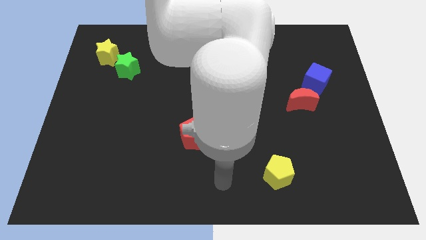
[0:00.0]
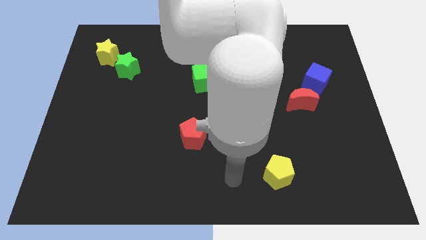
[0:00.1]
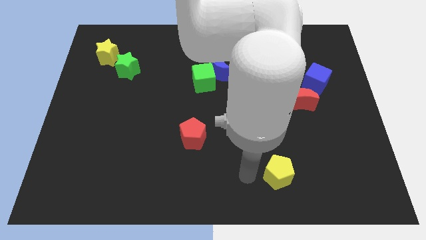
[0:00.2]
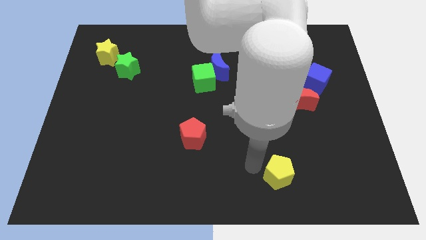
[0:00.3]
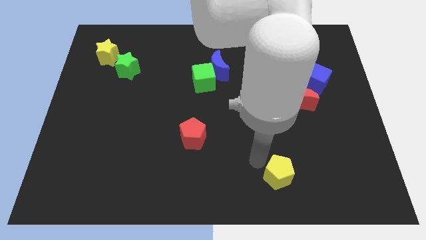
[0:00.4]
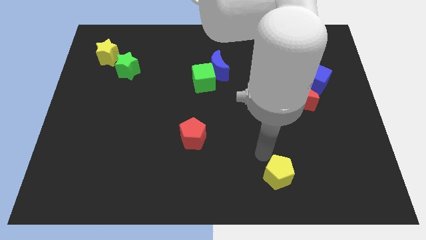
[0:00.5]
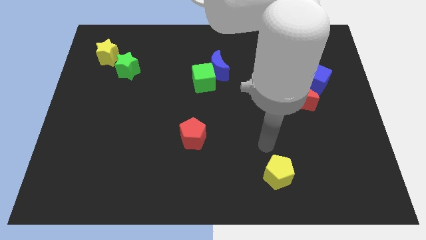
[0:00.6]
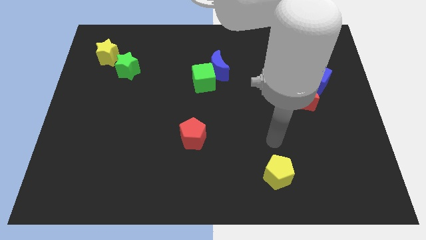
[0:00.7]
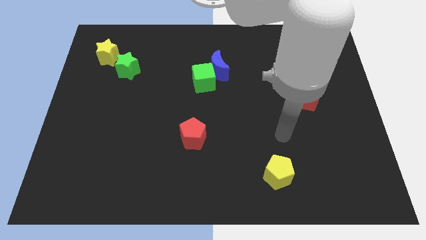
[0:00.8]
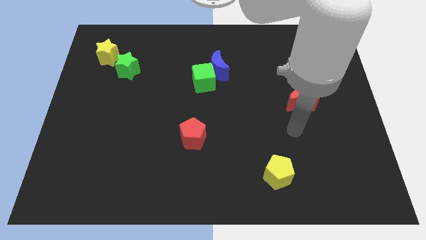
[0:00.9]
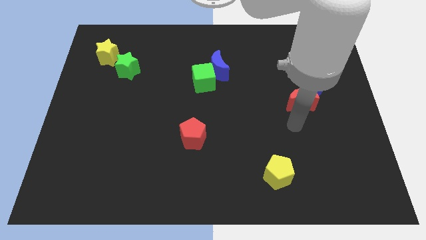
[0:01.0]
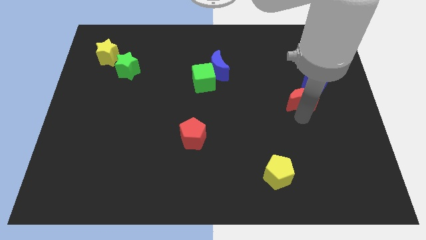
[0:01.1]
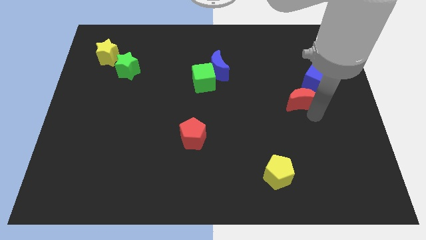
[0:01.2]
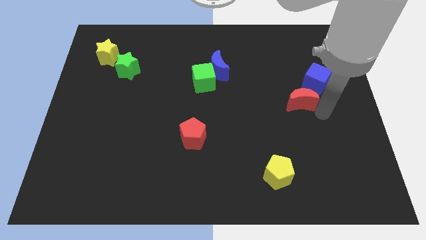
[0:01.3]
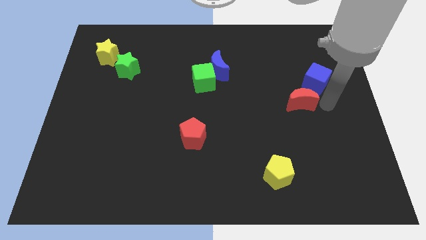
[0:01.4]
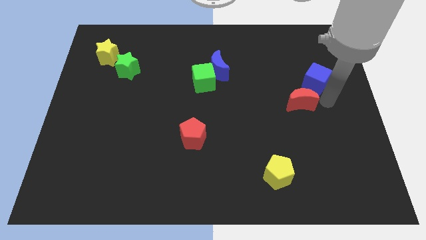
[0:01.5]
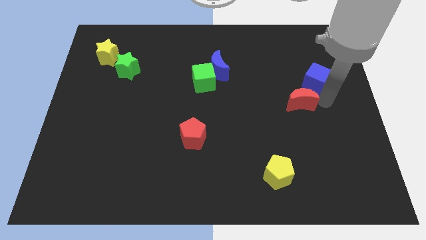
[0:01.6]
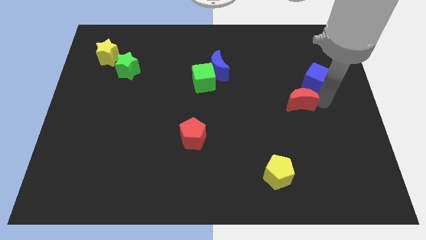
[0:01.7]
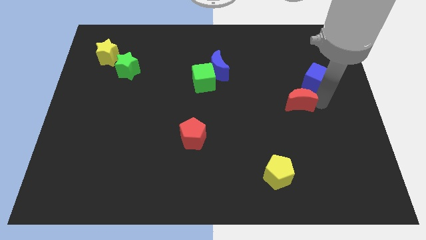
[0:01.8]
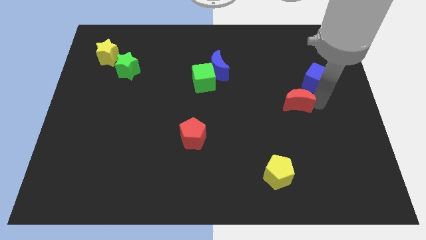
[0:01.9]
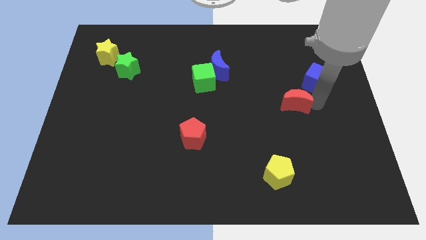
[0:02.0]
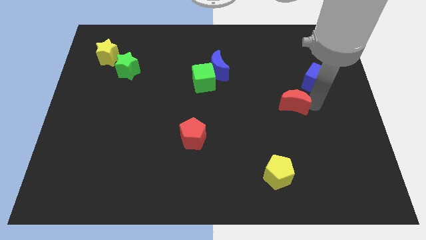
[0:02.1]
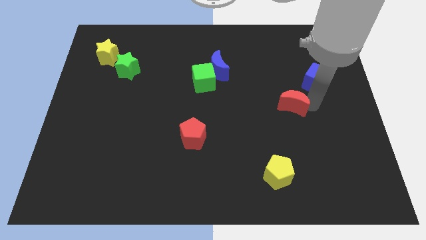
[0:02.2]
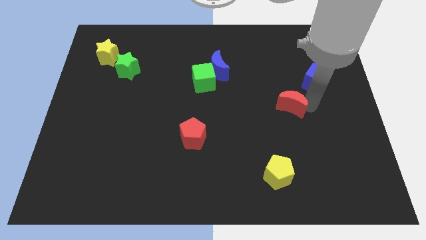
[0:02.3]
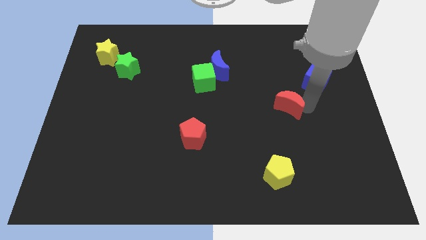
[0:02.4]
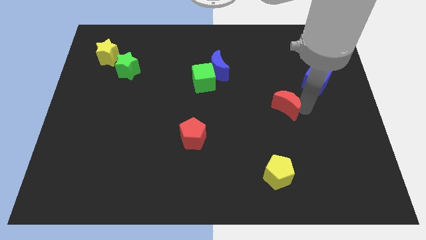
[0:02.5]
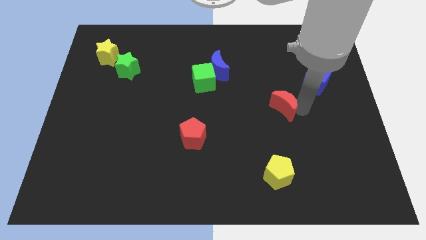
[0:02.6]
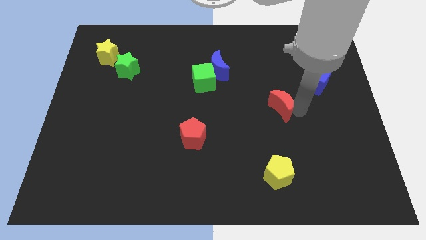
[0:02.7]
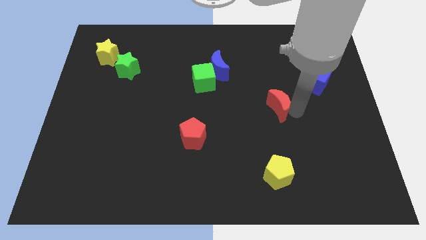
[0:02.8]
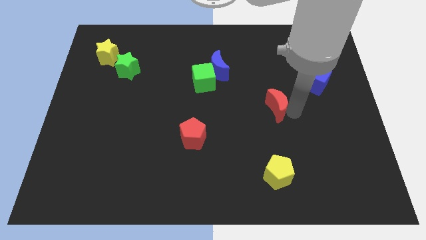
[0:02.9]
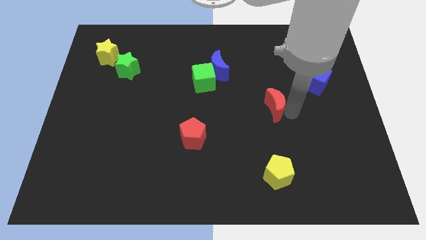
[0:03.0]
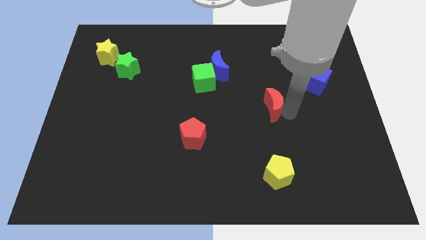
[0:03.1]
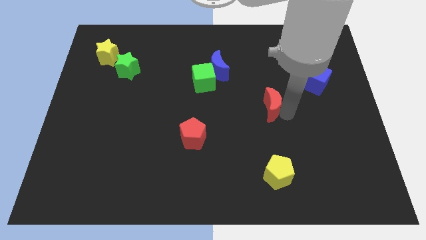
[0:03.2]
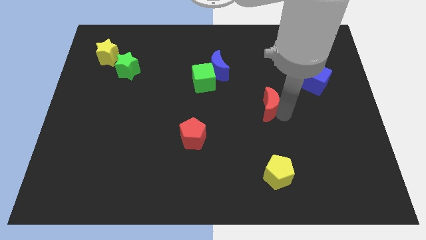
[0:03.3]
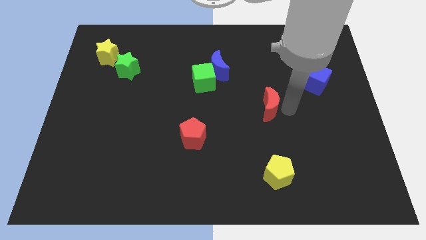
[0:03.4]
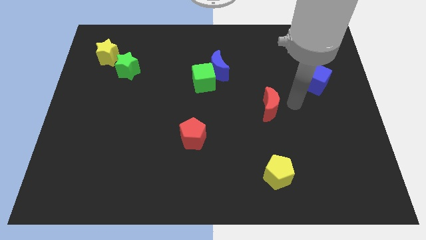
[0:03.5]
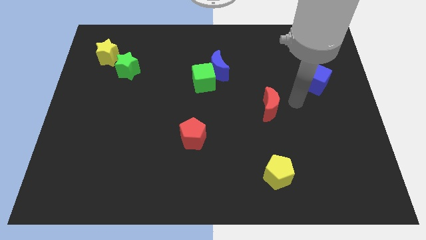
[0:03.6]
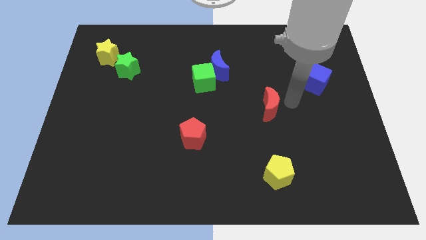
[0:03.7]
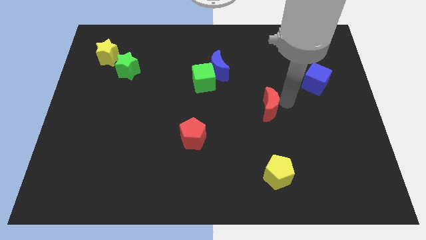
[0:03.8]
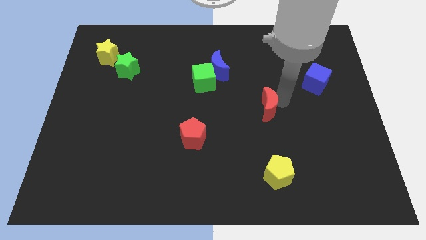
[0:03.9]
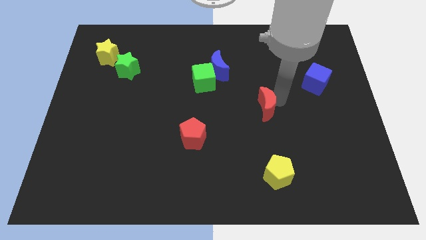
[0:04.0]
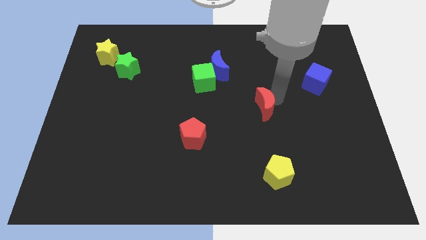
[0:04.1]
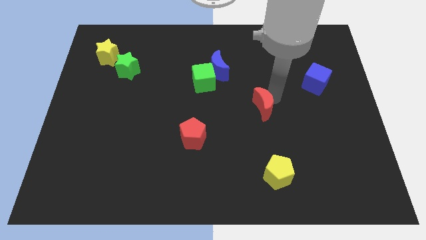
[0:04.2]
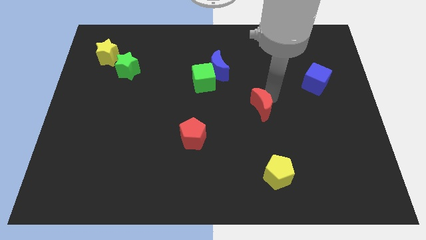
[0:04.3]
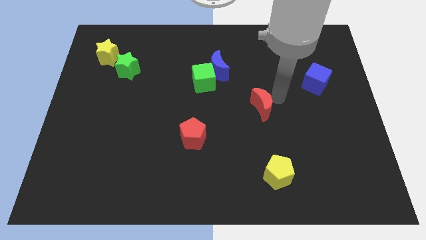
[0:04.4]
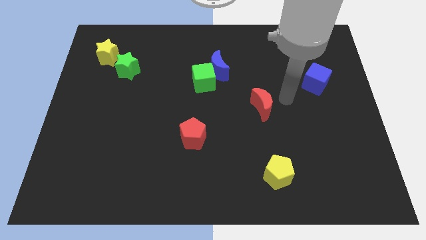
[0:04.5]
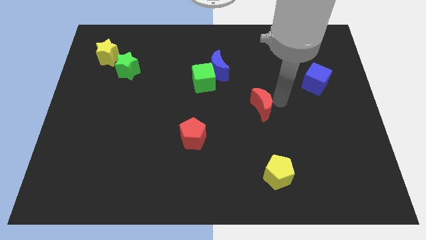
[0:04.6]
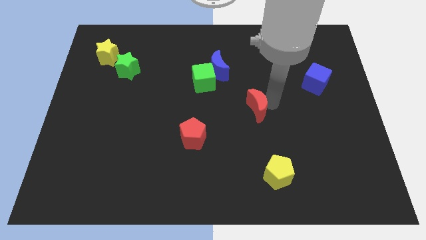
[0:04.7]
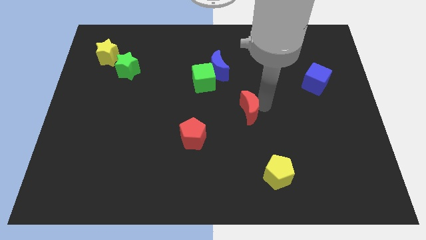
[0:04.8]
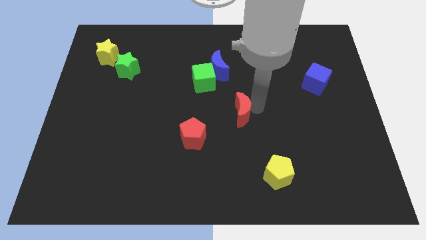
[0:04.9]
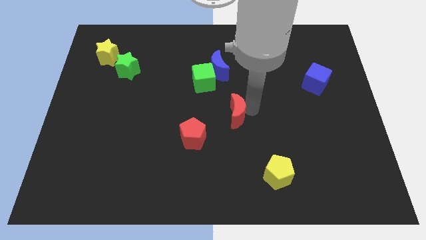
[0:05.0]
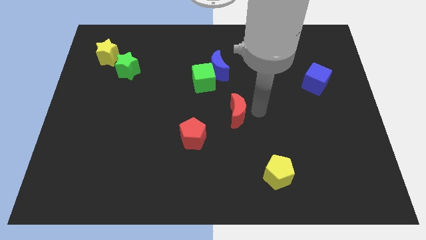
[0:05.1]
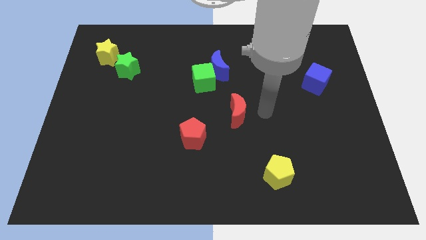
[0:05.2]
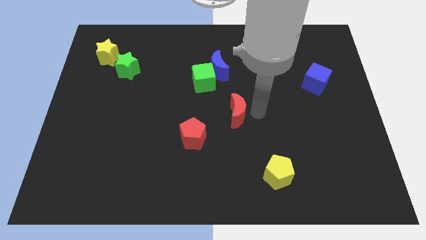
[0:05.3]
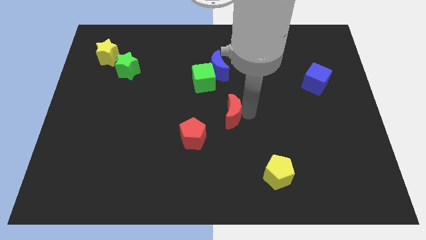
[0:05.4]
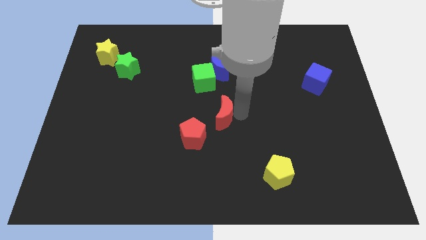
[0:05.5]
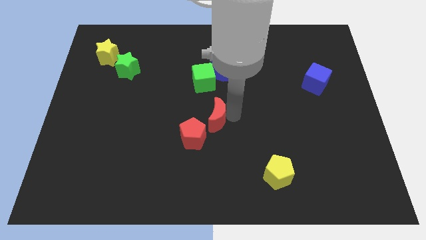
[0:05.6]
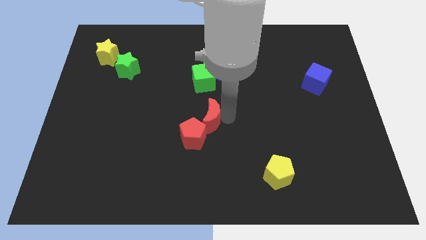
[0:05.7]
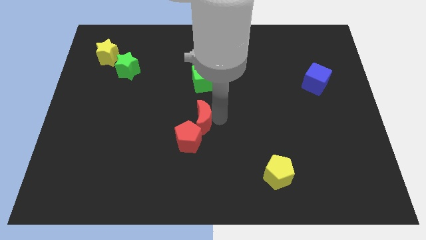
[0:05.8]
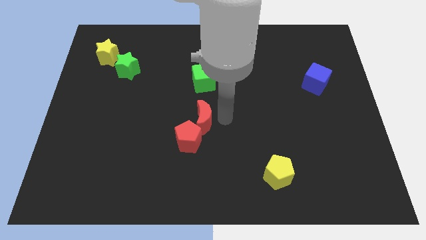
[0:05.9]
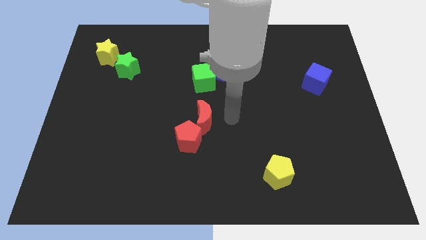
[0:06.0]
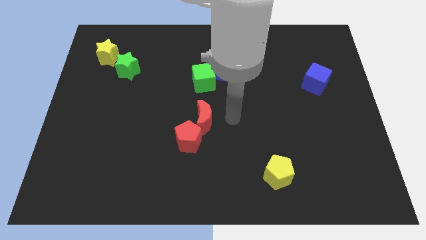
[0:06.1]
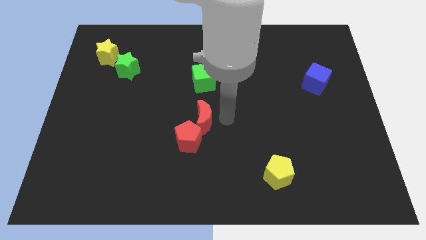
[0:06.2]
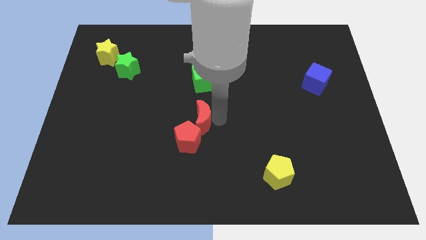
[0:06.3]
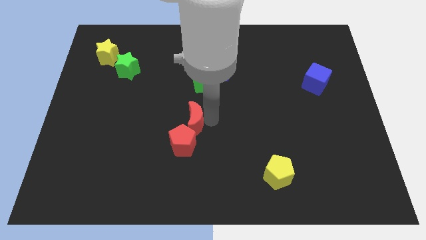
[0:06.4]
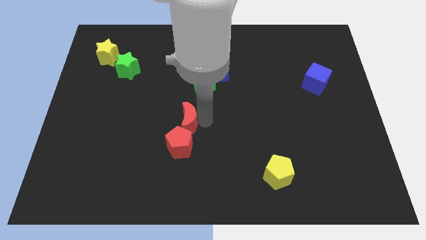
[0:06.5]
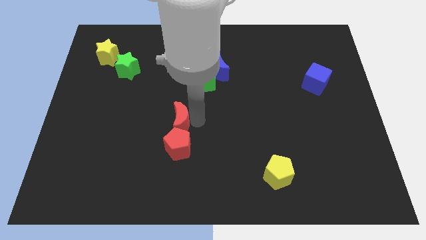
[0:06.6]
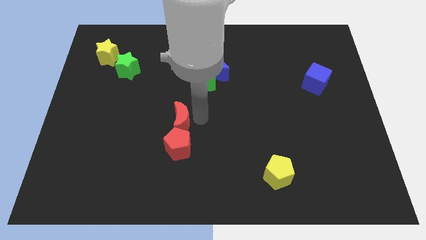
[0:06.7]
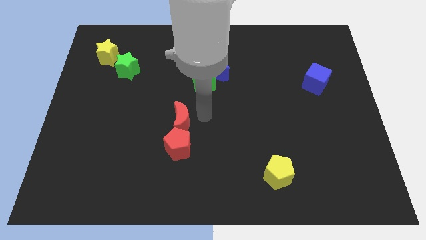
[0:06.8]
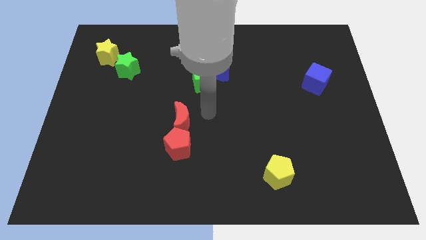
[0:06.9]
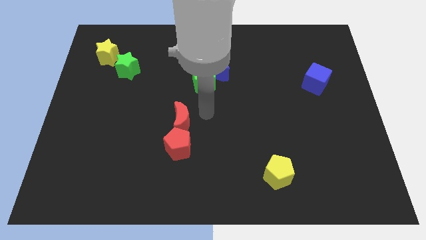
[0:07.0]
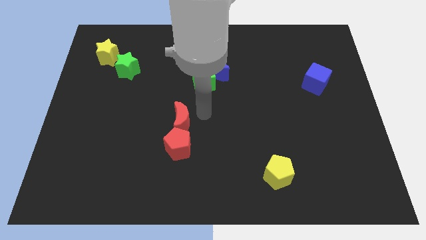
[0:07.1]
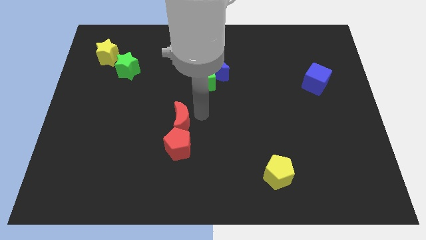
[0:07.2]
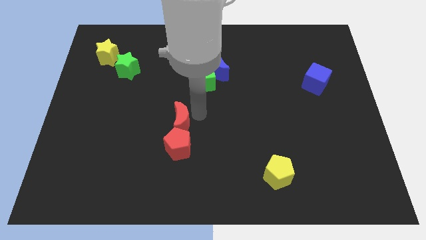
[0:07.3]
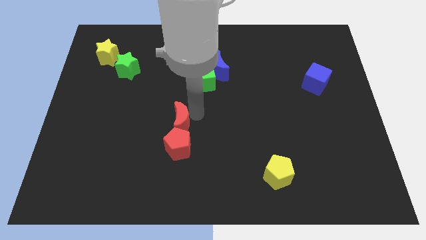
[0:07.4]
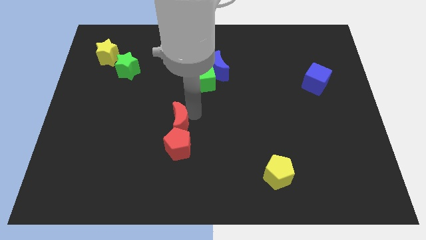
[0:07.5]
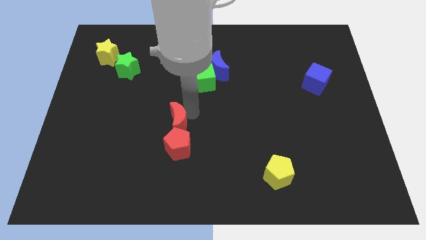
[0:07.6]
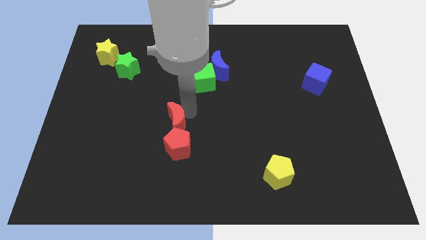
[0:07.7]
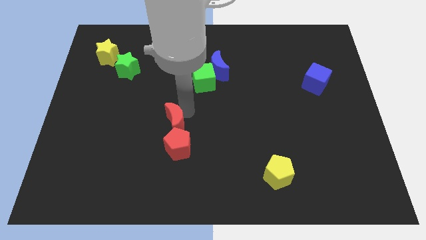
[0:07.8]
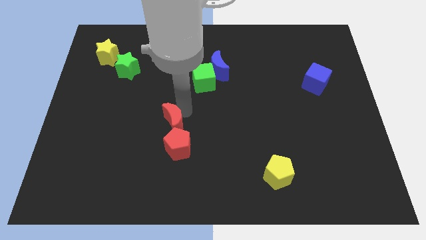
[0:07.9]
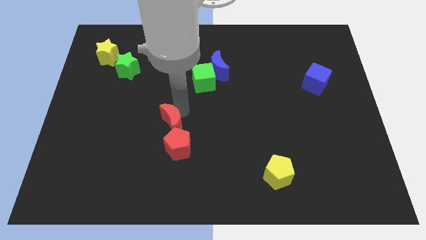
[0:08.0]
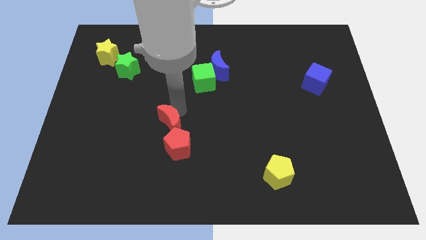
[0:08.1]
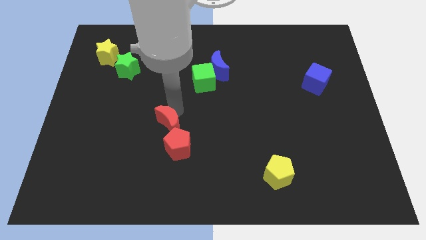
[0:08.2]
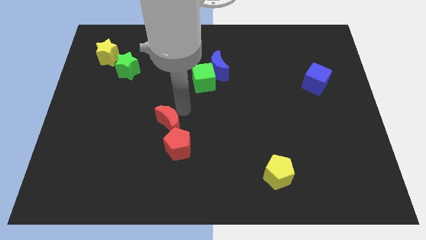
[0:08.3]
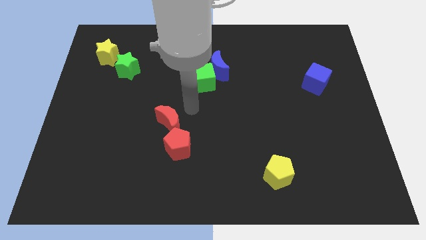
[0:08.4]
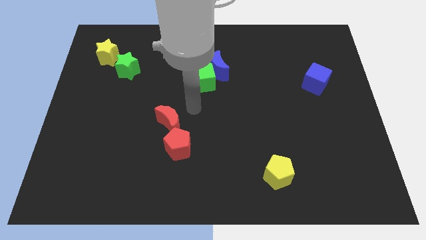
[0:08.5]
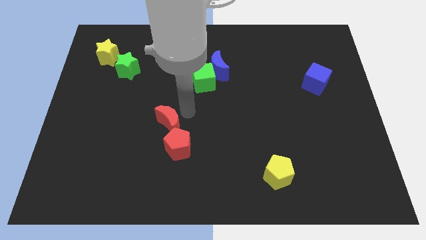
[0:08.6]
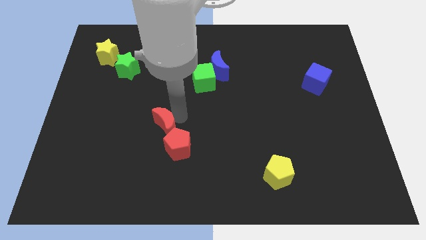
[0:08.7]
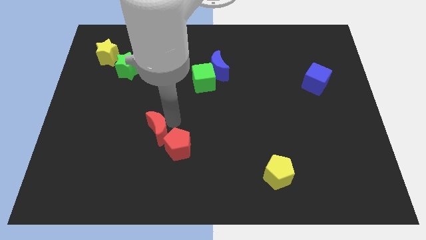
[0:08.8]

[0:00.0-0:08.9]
put the red moon to the left side of the red pentagon
